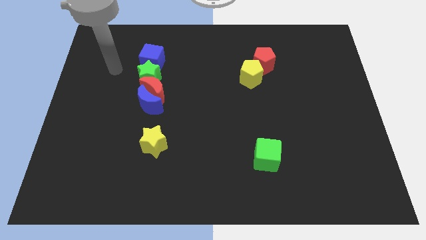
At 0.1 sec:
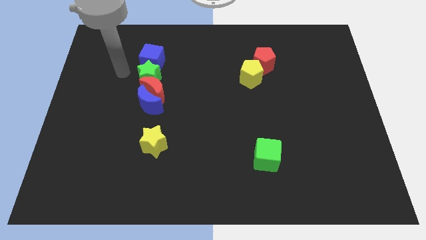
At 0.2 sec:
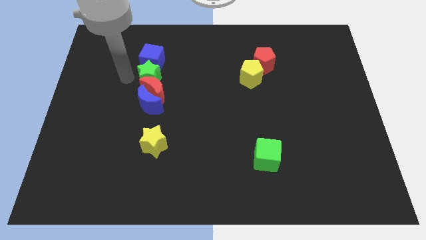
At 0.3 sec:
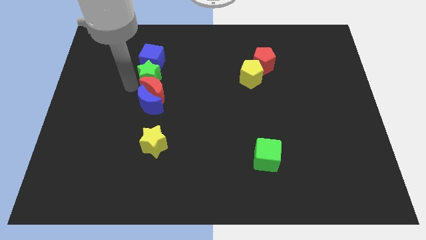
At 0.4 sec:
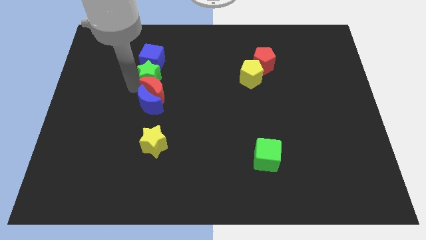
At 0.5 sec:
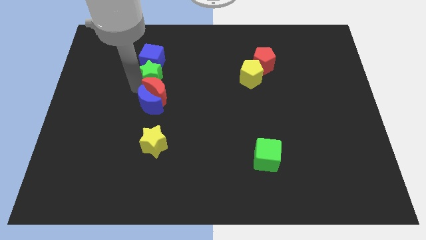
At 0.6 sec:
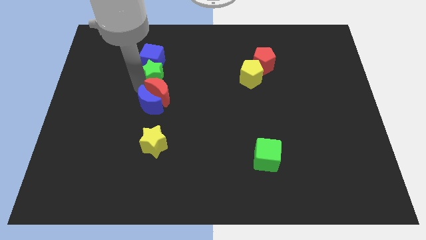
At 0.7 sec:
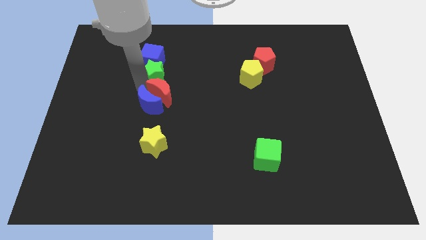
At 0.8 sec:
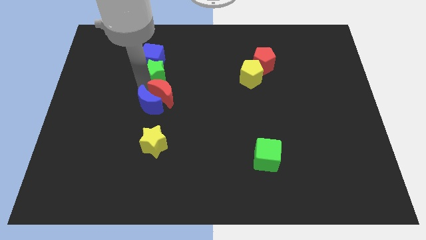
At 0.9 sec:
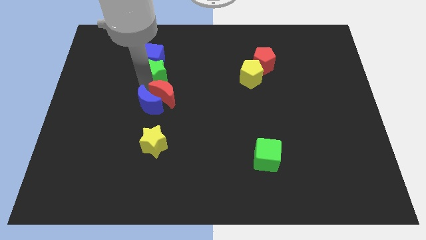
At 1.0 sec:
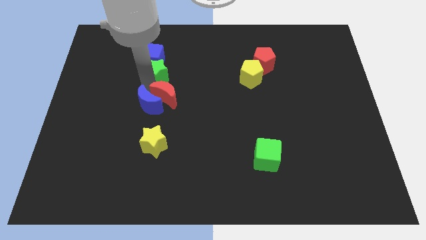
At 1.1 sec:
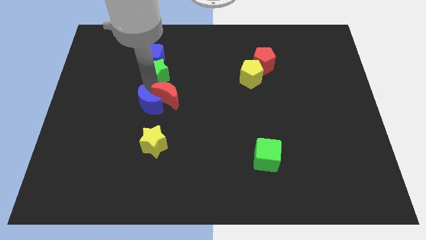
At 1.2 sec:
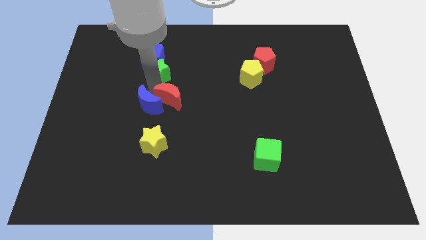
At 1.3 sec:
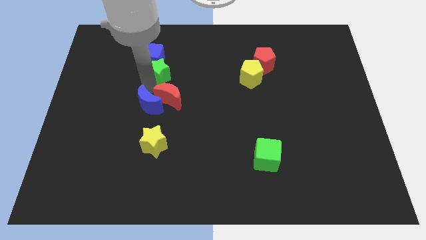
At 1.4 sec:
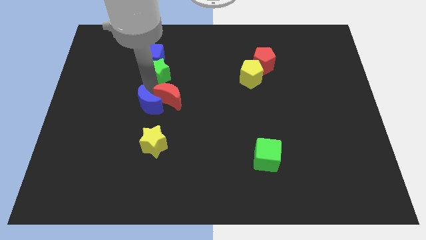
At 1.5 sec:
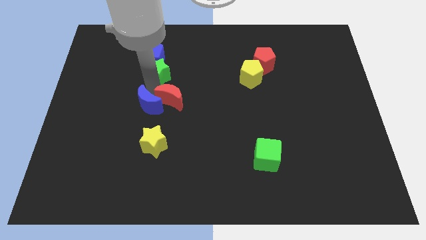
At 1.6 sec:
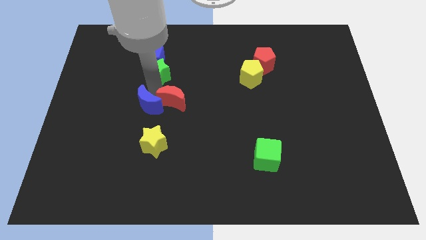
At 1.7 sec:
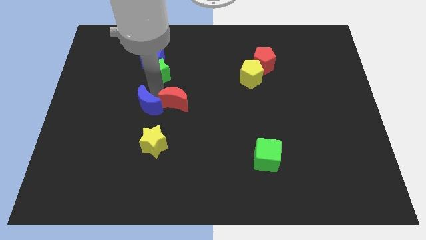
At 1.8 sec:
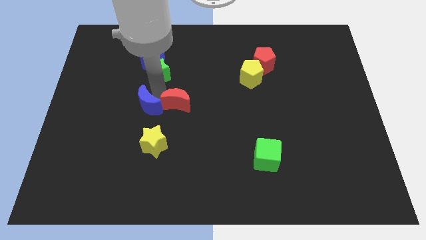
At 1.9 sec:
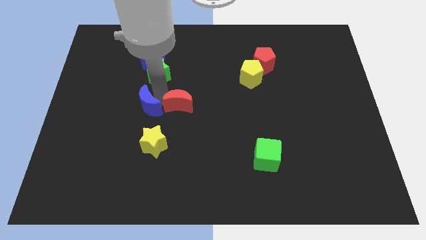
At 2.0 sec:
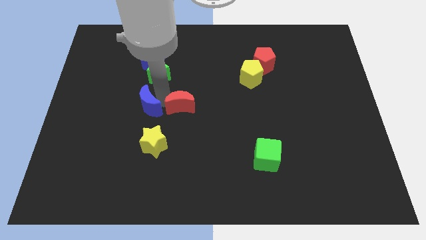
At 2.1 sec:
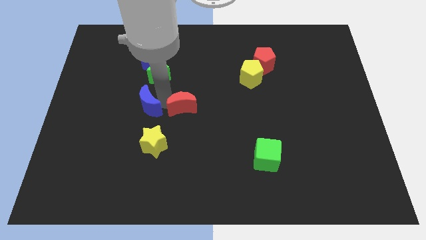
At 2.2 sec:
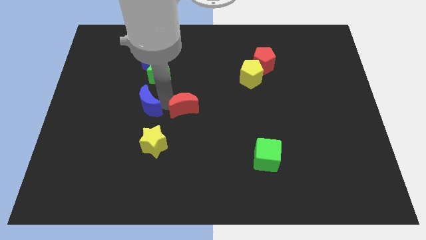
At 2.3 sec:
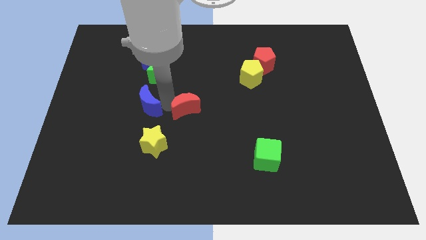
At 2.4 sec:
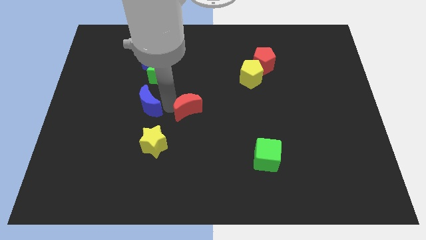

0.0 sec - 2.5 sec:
pull the red moon apart from the blue moon and green star

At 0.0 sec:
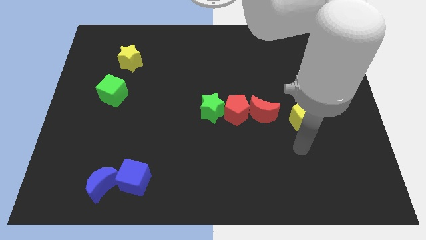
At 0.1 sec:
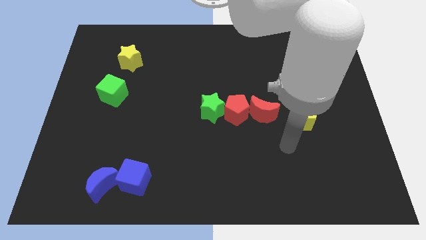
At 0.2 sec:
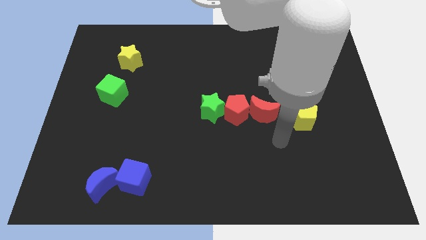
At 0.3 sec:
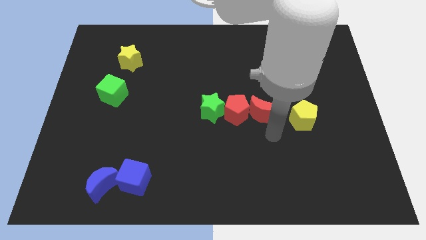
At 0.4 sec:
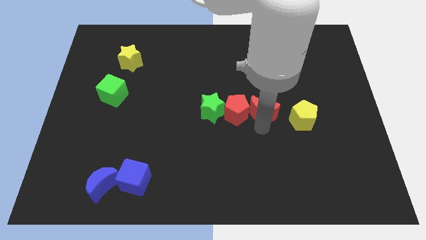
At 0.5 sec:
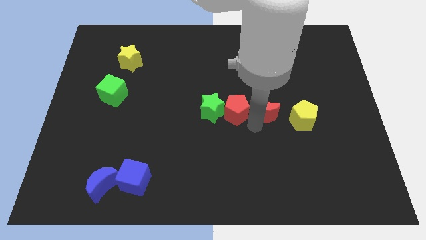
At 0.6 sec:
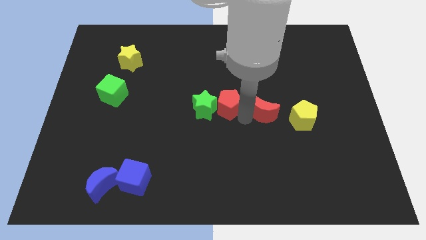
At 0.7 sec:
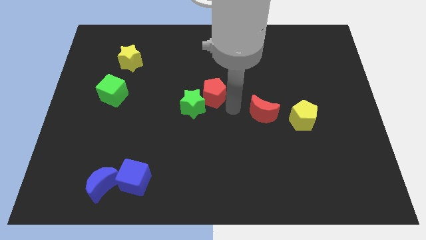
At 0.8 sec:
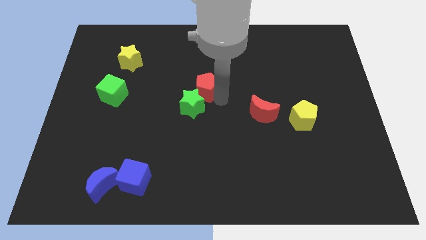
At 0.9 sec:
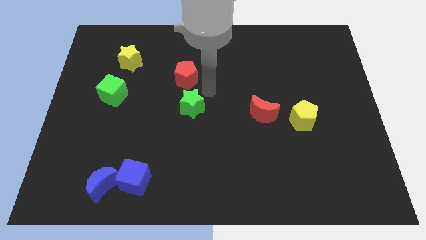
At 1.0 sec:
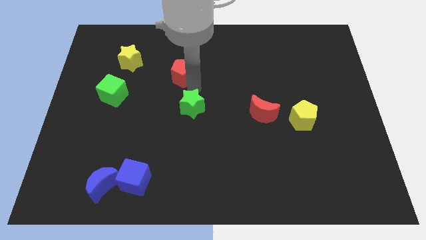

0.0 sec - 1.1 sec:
move the green star away from the red pentagon

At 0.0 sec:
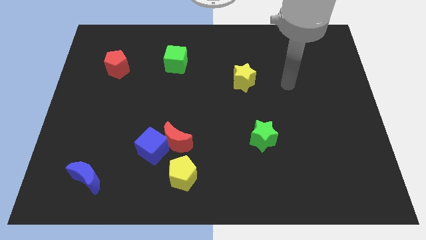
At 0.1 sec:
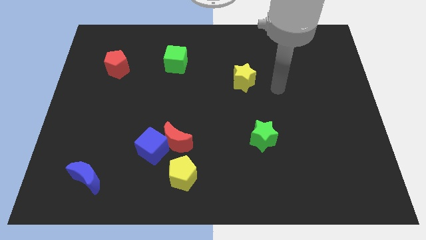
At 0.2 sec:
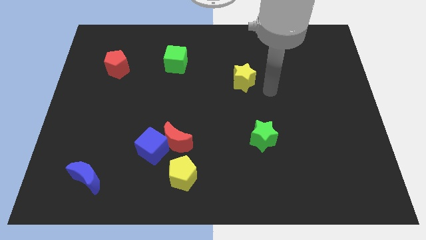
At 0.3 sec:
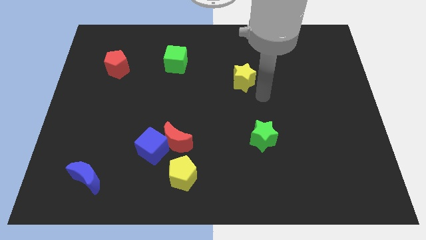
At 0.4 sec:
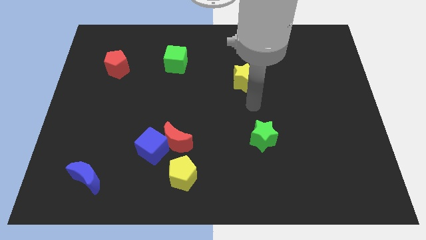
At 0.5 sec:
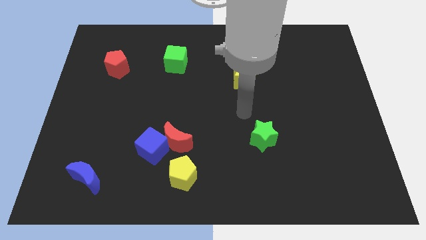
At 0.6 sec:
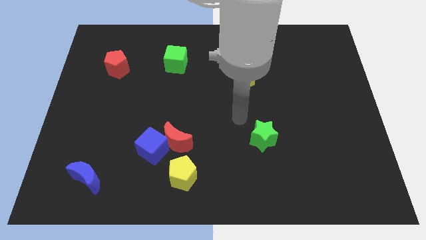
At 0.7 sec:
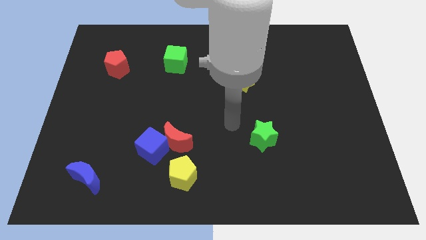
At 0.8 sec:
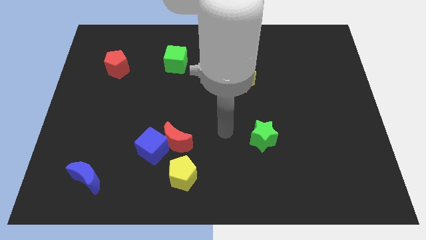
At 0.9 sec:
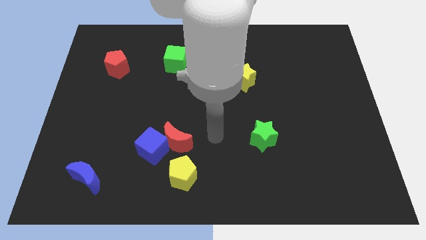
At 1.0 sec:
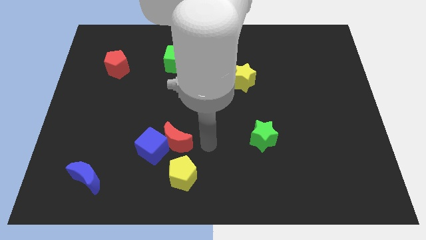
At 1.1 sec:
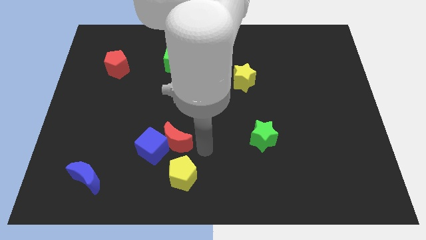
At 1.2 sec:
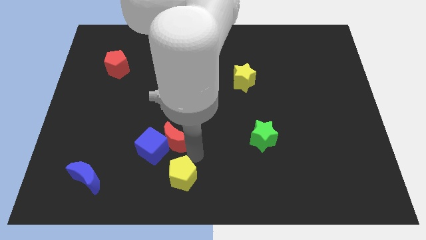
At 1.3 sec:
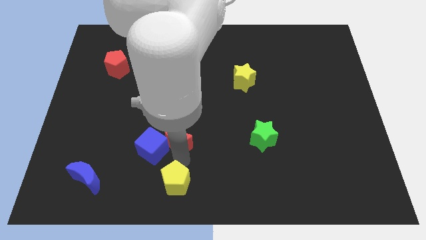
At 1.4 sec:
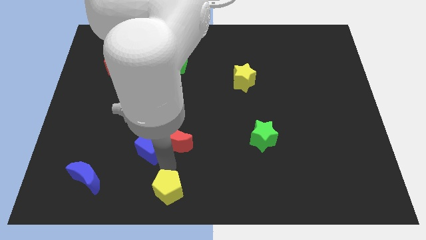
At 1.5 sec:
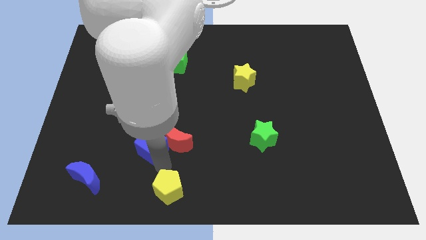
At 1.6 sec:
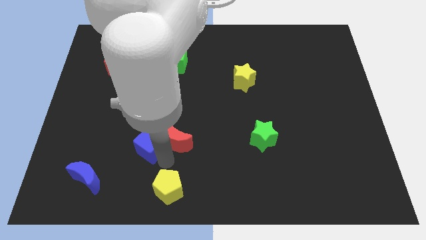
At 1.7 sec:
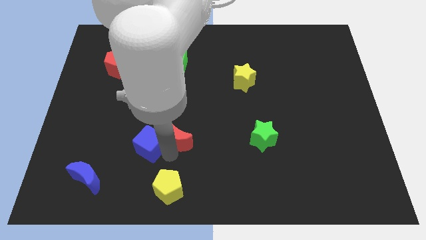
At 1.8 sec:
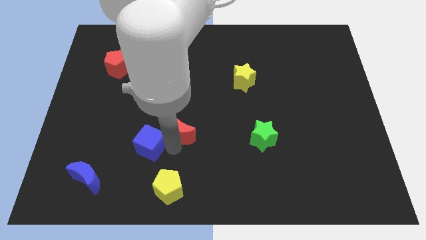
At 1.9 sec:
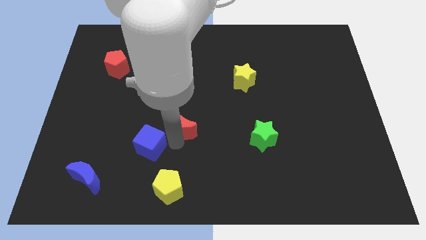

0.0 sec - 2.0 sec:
move the red moon away from the blue cube and yellow pentagon

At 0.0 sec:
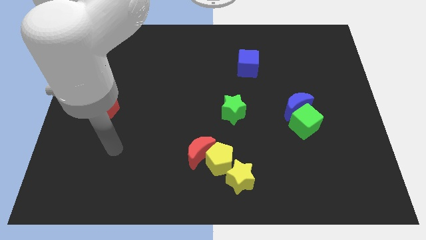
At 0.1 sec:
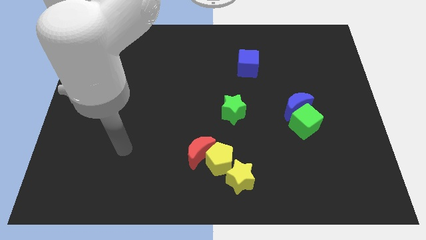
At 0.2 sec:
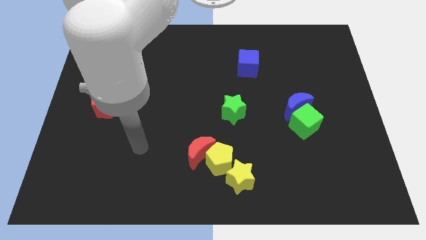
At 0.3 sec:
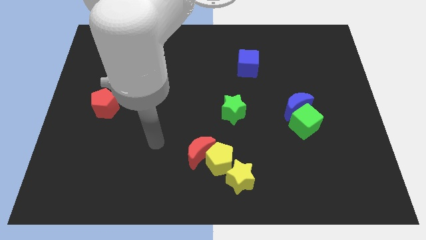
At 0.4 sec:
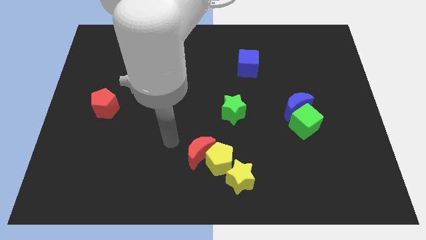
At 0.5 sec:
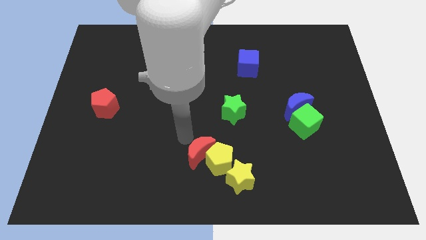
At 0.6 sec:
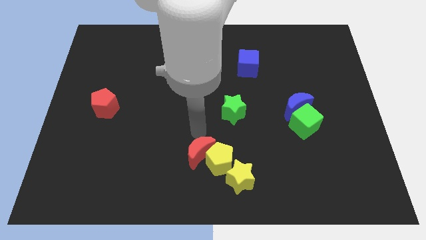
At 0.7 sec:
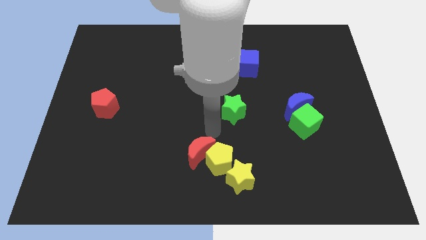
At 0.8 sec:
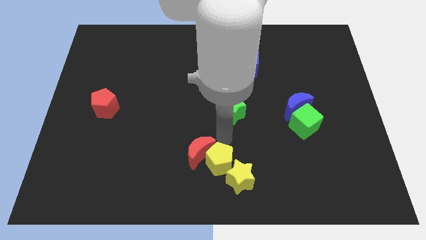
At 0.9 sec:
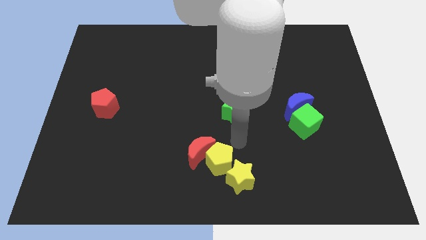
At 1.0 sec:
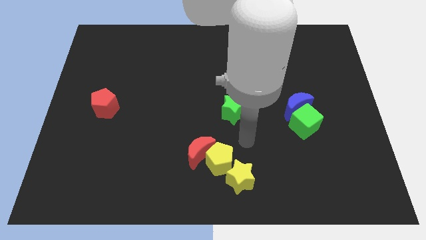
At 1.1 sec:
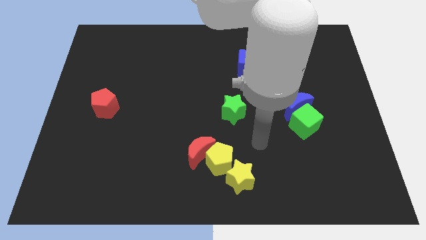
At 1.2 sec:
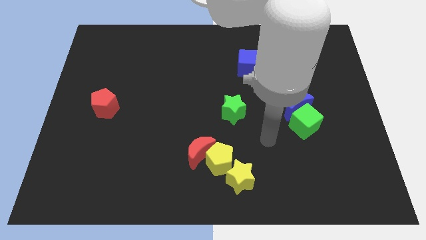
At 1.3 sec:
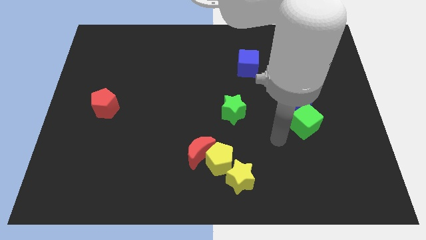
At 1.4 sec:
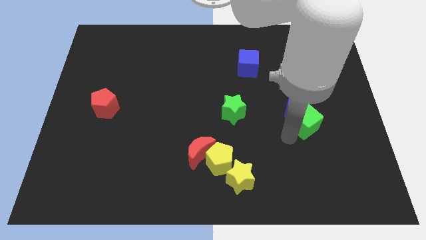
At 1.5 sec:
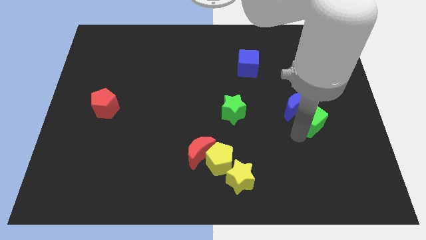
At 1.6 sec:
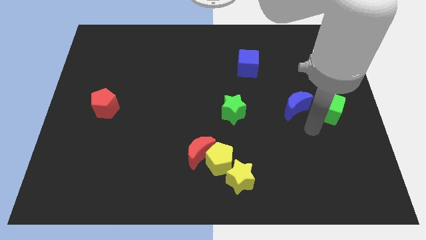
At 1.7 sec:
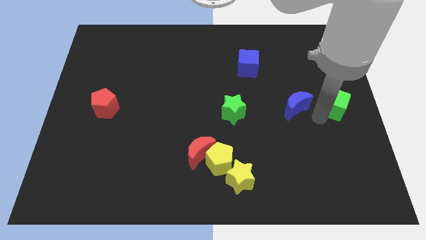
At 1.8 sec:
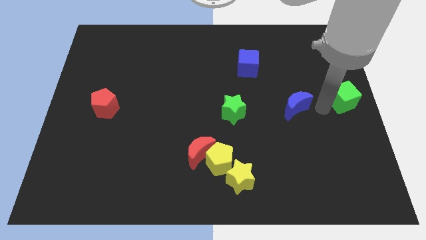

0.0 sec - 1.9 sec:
move the blue moon away from the green cube

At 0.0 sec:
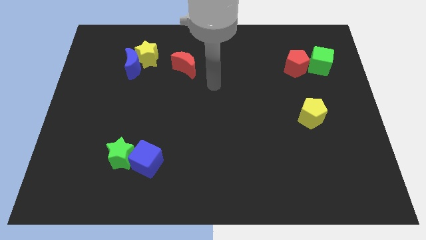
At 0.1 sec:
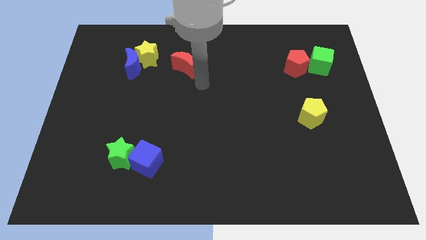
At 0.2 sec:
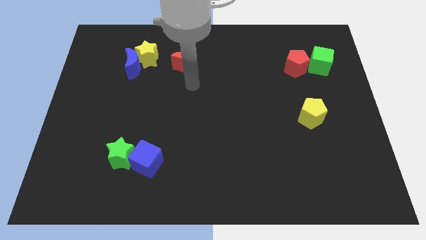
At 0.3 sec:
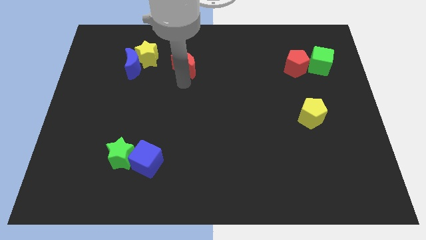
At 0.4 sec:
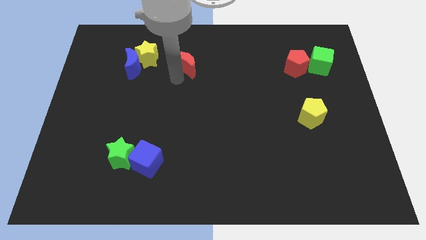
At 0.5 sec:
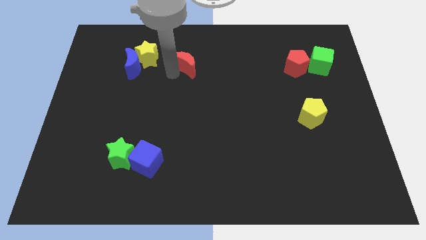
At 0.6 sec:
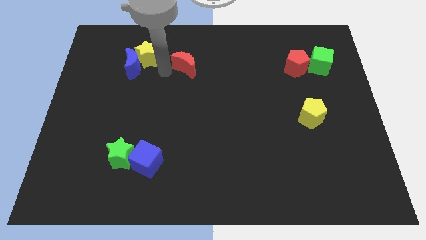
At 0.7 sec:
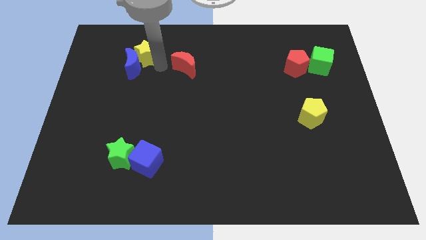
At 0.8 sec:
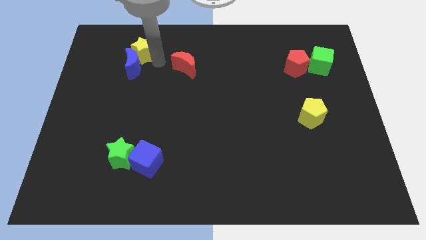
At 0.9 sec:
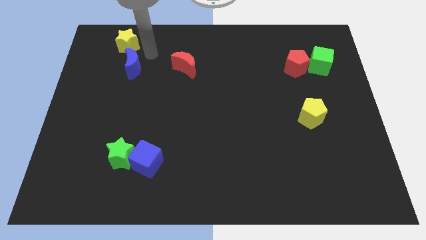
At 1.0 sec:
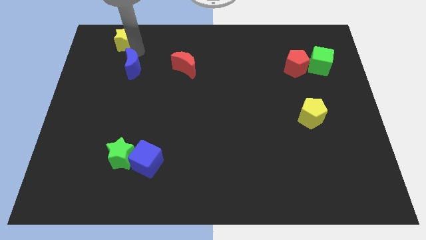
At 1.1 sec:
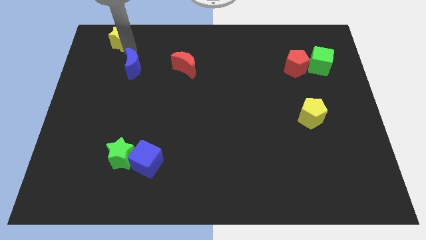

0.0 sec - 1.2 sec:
move the blue moon away from the yellow star

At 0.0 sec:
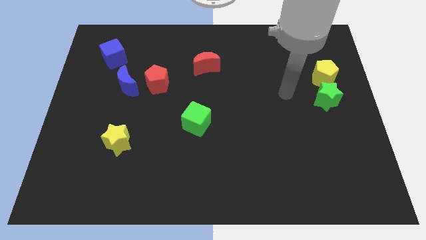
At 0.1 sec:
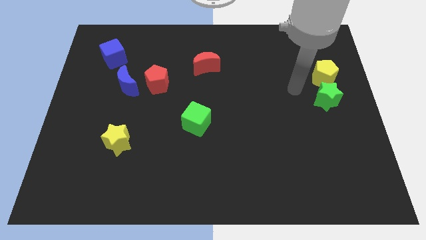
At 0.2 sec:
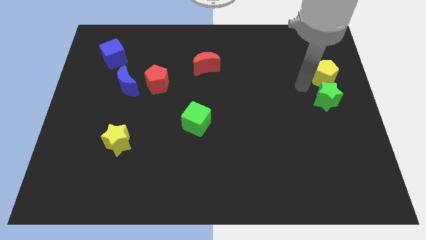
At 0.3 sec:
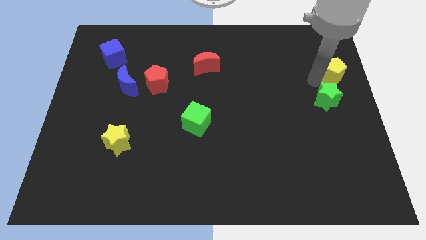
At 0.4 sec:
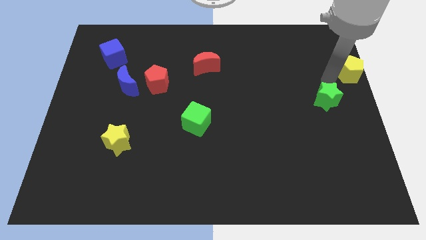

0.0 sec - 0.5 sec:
pull the green star apart from the yellow pentagon
